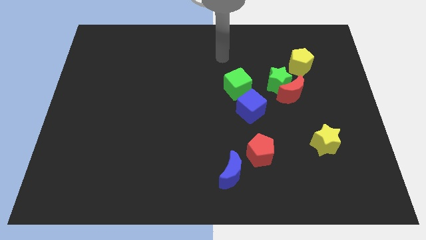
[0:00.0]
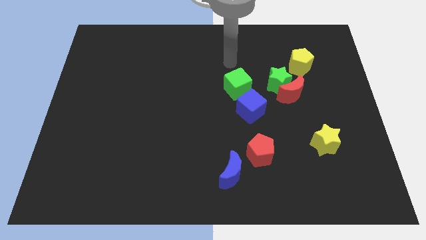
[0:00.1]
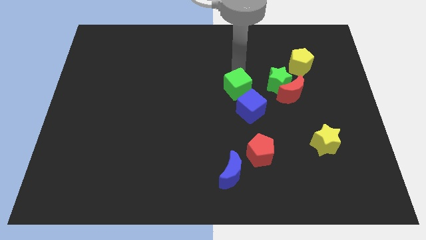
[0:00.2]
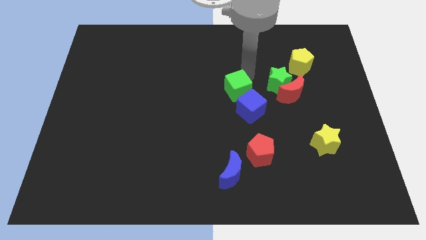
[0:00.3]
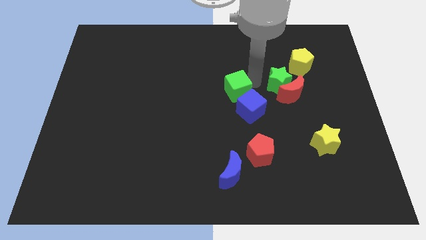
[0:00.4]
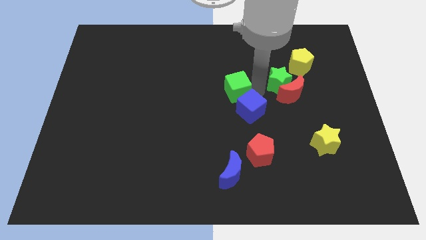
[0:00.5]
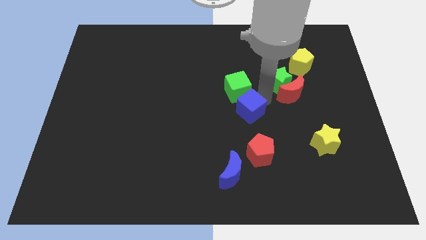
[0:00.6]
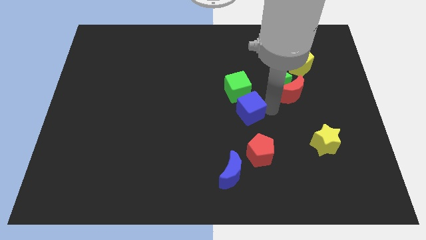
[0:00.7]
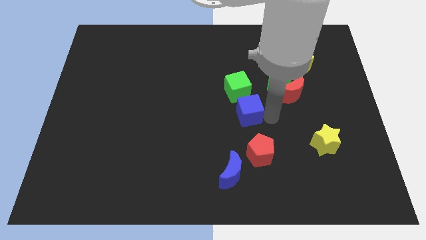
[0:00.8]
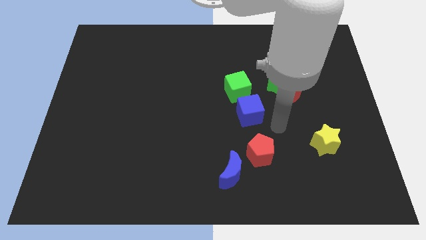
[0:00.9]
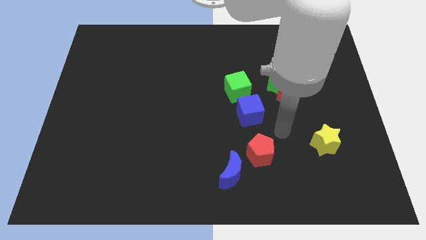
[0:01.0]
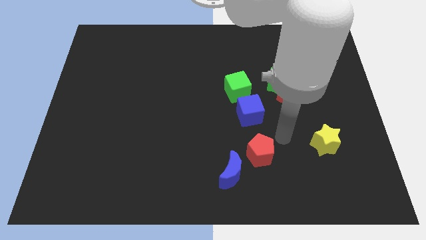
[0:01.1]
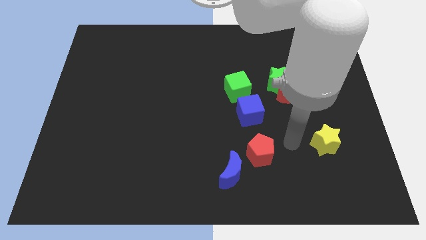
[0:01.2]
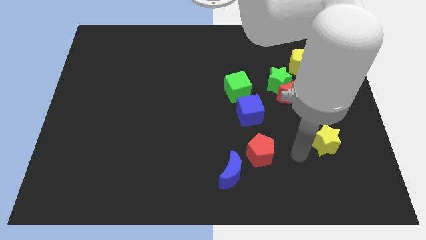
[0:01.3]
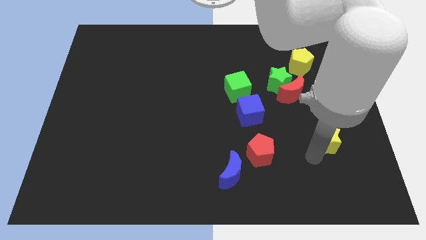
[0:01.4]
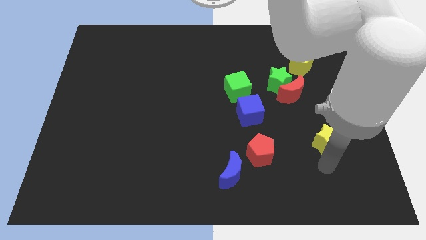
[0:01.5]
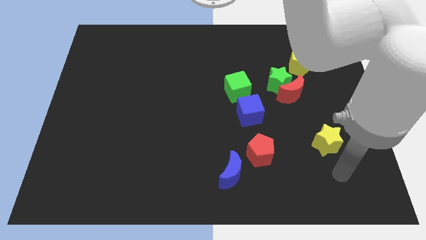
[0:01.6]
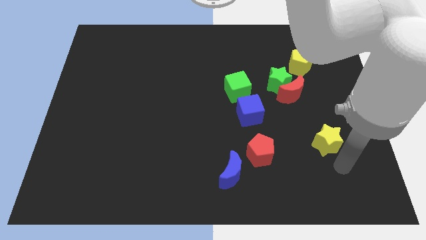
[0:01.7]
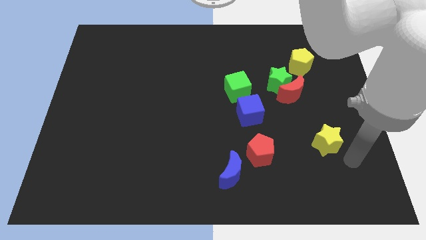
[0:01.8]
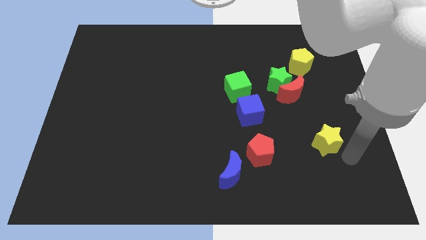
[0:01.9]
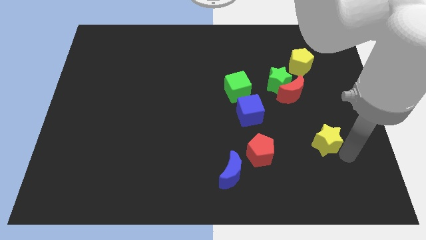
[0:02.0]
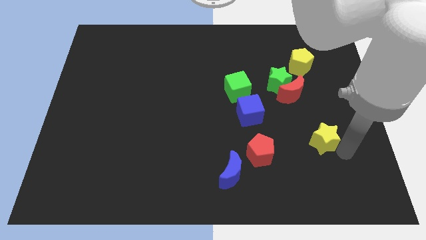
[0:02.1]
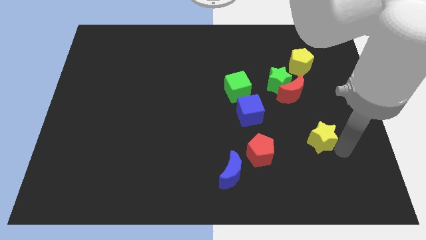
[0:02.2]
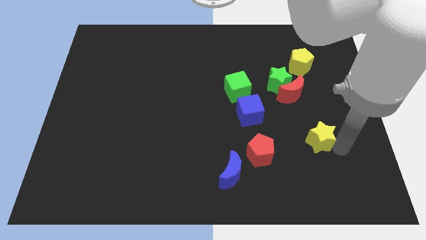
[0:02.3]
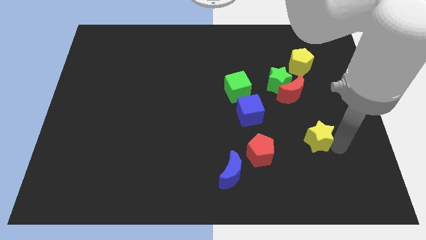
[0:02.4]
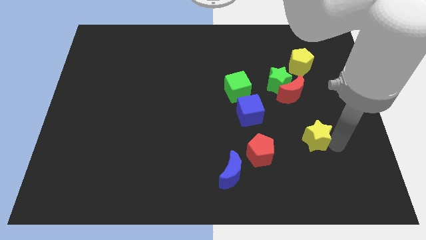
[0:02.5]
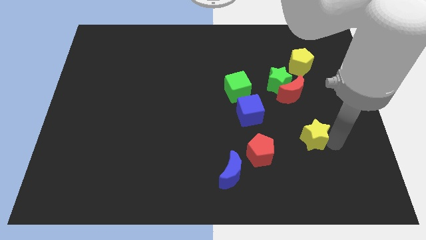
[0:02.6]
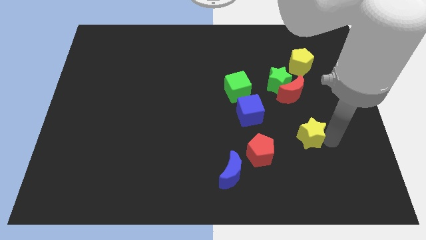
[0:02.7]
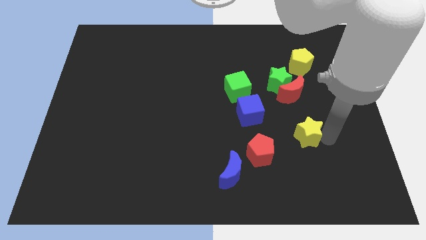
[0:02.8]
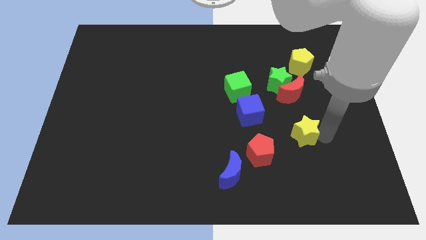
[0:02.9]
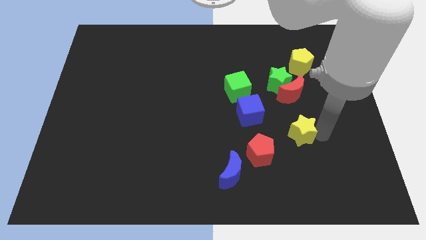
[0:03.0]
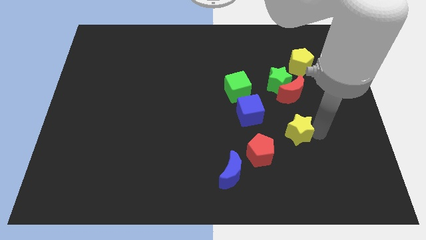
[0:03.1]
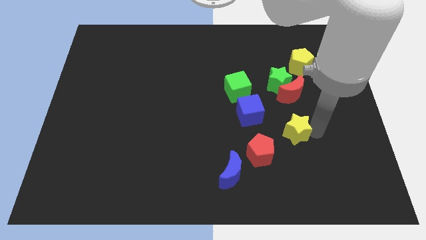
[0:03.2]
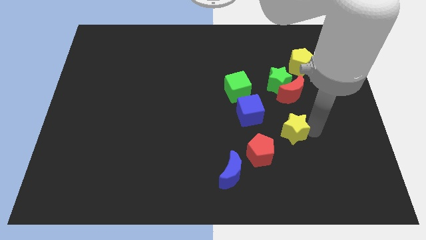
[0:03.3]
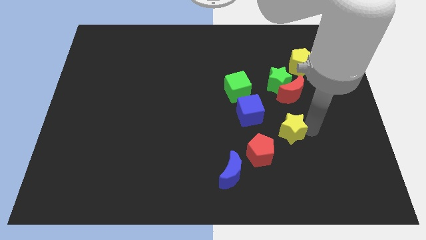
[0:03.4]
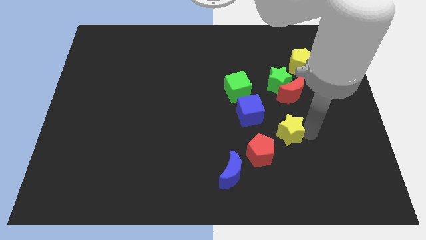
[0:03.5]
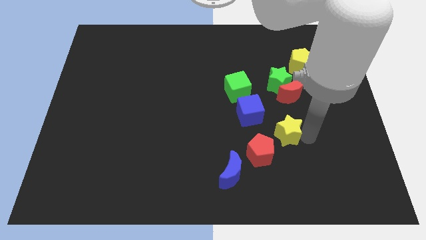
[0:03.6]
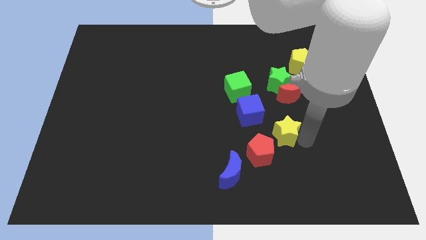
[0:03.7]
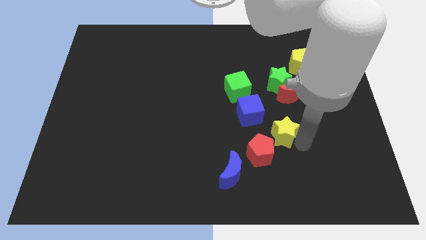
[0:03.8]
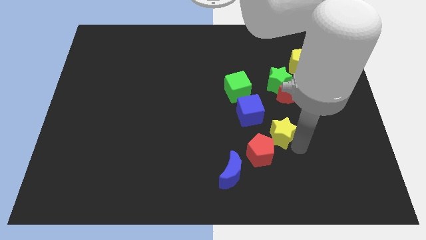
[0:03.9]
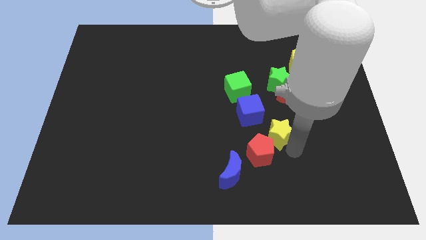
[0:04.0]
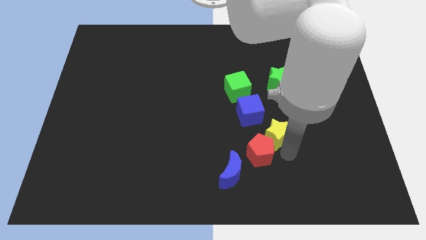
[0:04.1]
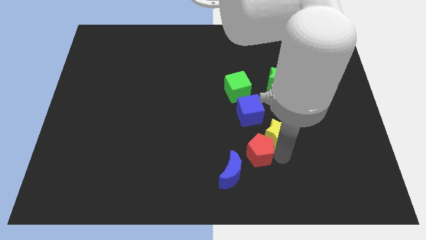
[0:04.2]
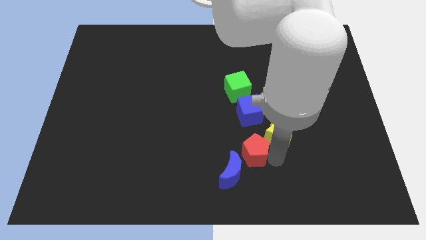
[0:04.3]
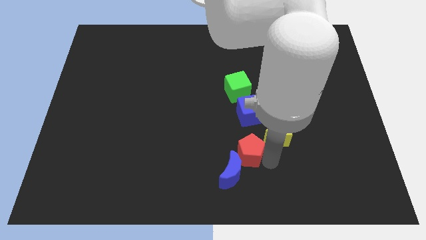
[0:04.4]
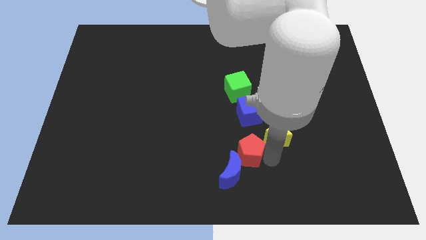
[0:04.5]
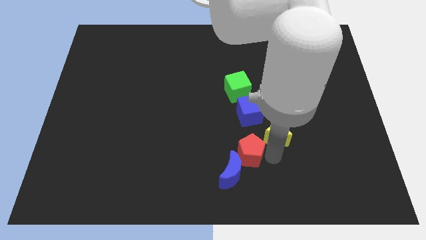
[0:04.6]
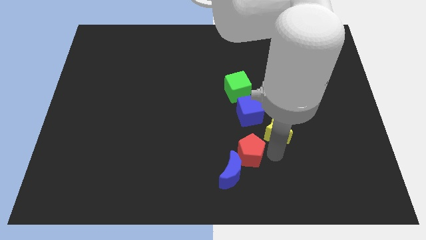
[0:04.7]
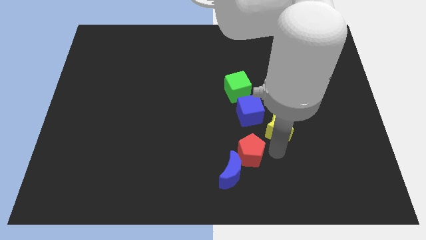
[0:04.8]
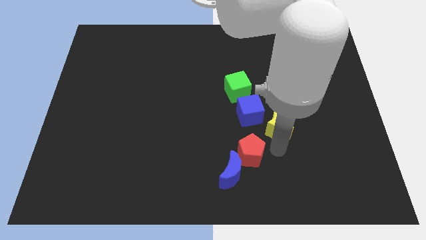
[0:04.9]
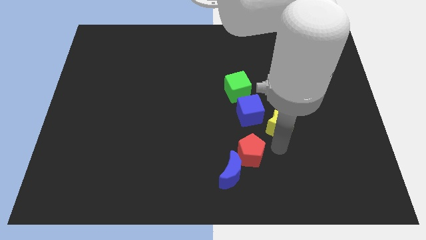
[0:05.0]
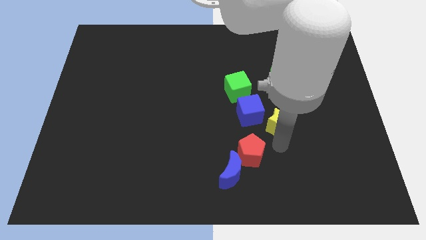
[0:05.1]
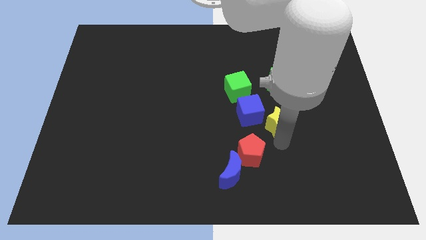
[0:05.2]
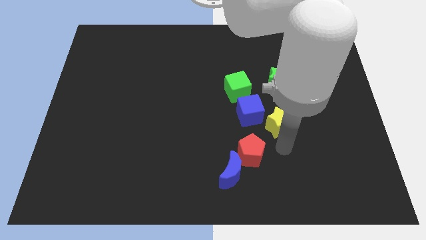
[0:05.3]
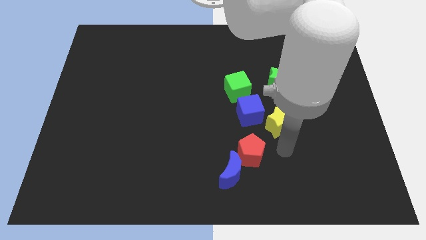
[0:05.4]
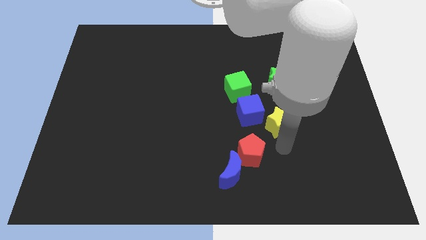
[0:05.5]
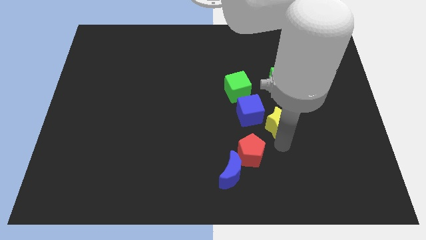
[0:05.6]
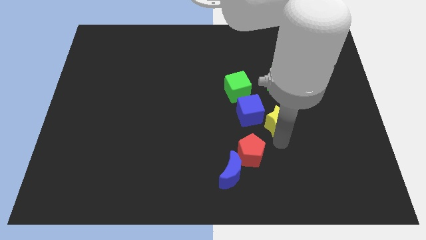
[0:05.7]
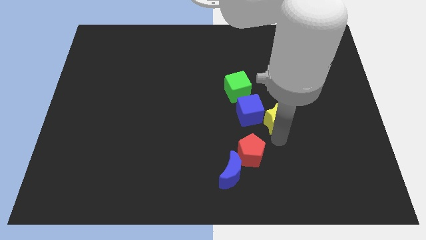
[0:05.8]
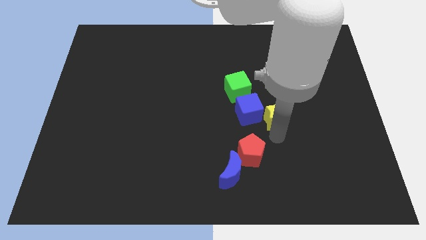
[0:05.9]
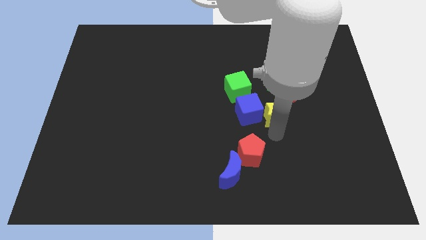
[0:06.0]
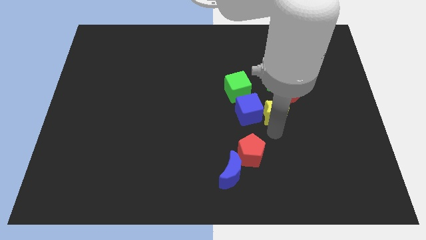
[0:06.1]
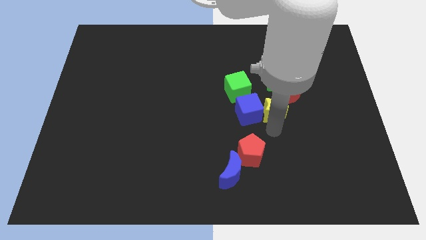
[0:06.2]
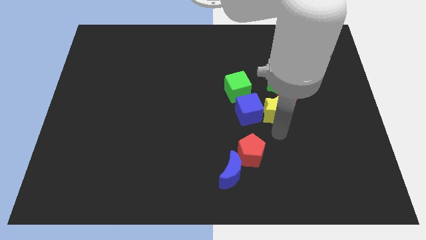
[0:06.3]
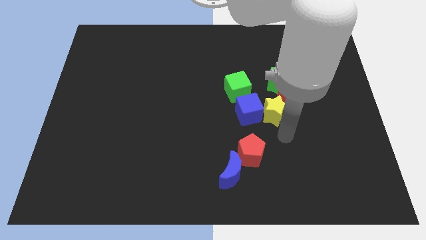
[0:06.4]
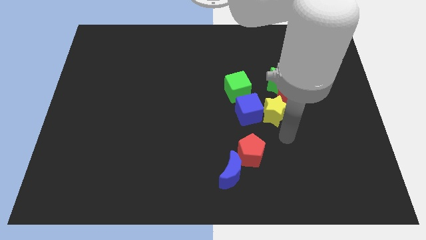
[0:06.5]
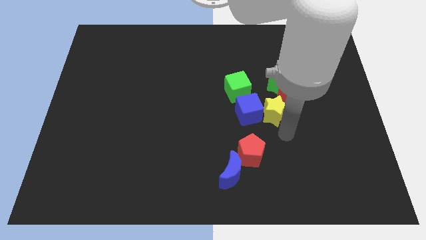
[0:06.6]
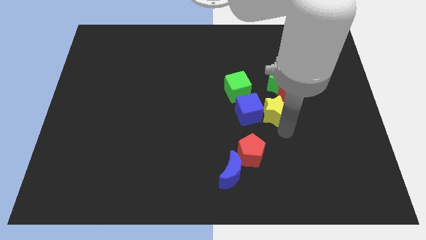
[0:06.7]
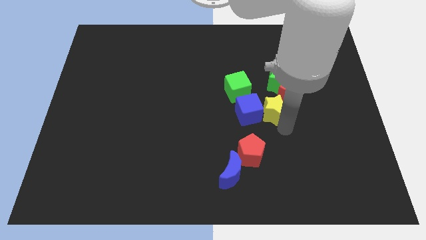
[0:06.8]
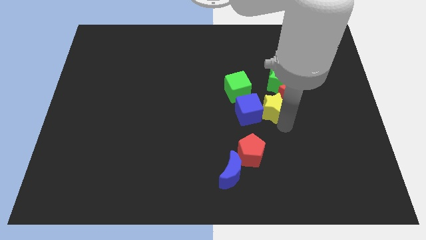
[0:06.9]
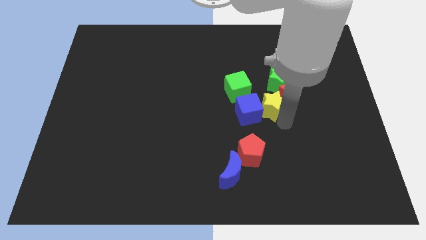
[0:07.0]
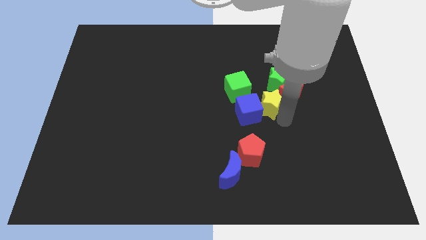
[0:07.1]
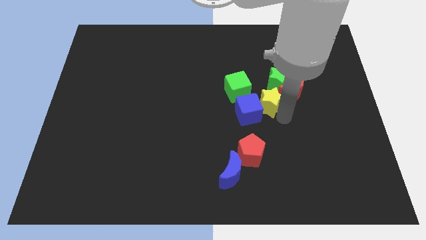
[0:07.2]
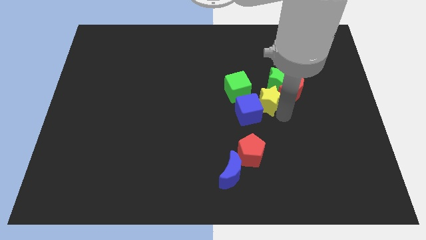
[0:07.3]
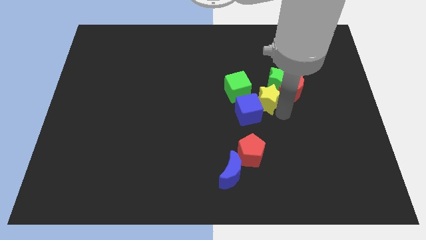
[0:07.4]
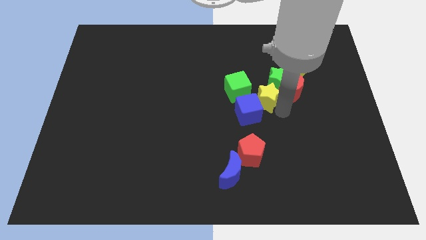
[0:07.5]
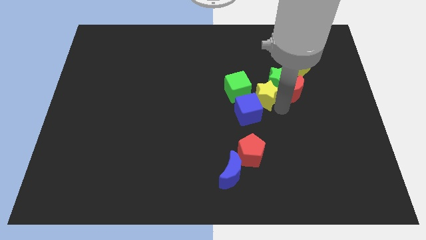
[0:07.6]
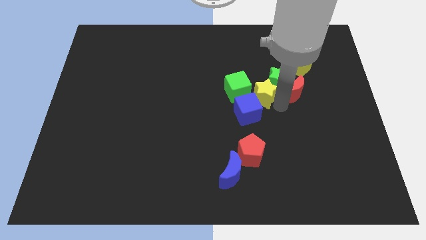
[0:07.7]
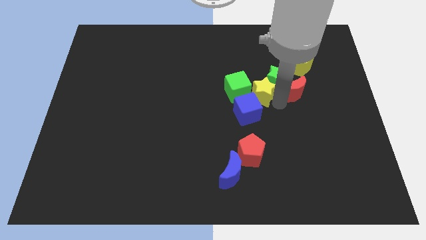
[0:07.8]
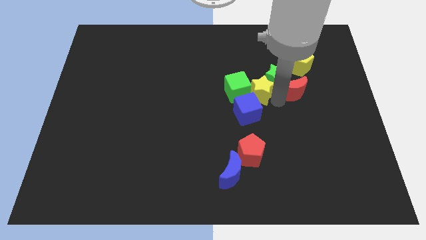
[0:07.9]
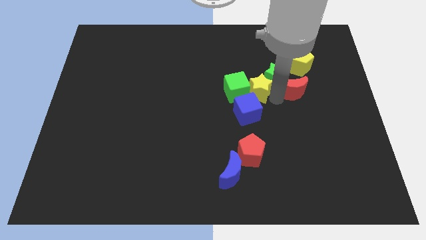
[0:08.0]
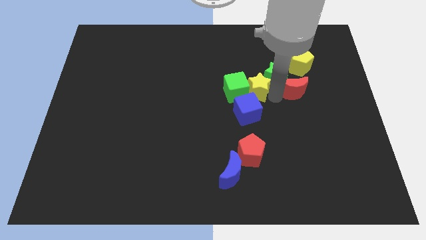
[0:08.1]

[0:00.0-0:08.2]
push the yellow star diagonally upwards and left
